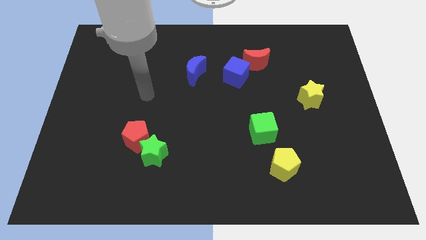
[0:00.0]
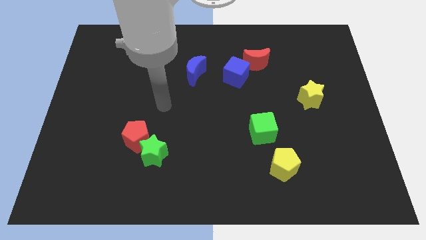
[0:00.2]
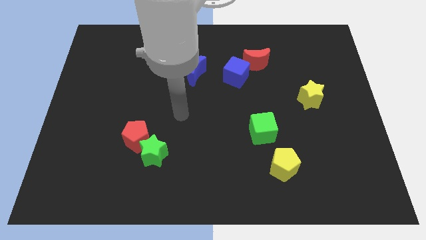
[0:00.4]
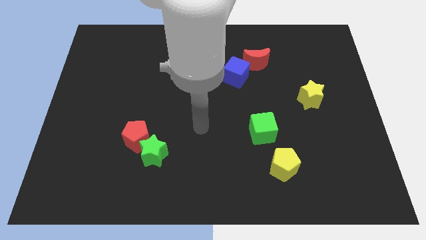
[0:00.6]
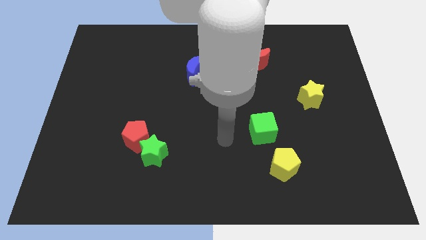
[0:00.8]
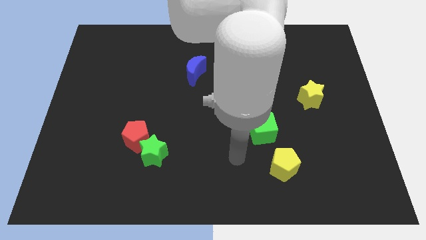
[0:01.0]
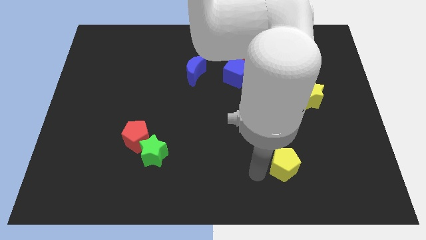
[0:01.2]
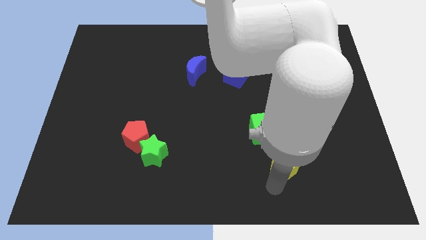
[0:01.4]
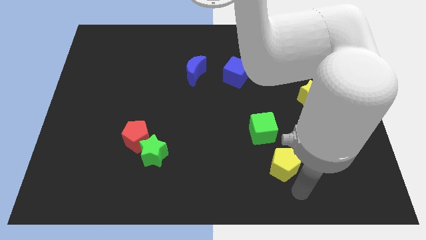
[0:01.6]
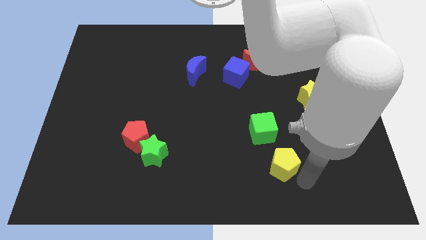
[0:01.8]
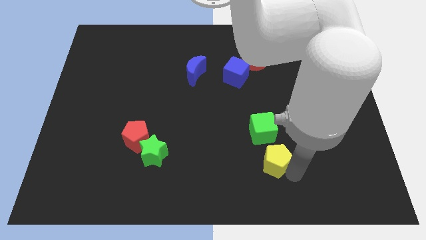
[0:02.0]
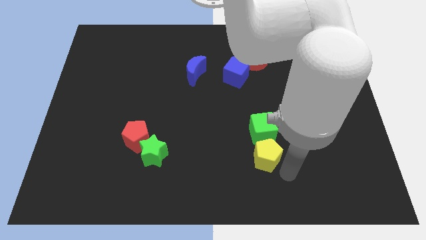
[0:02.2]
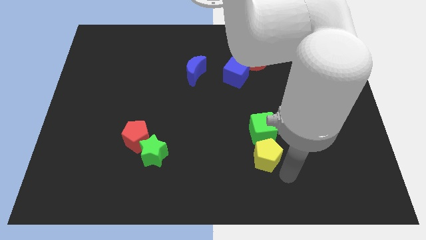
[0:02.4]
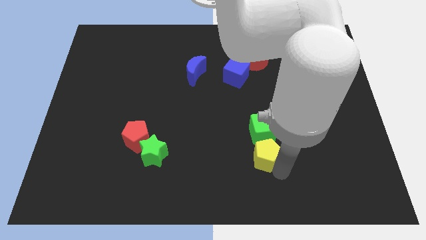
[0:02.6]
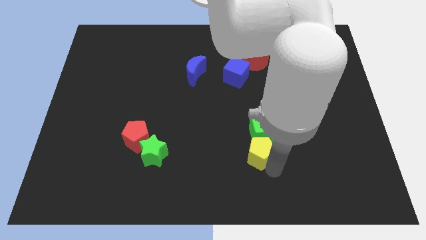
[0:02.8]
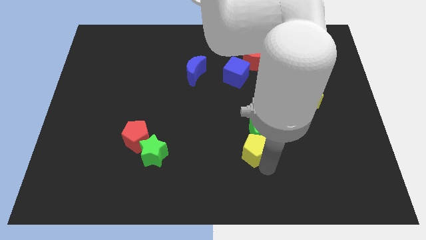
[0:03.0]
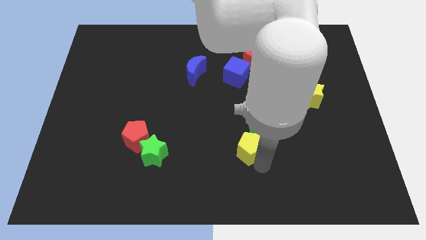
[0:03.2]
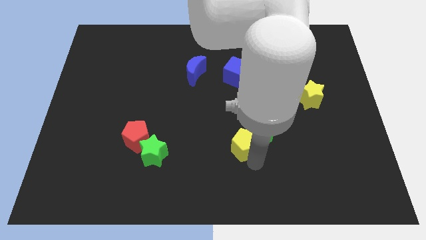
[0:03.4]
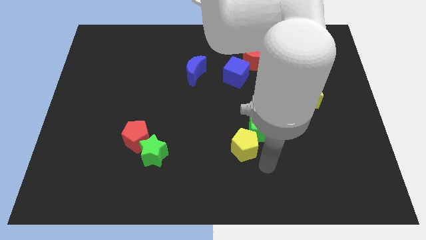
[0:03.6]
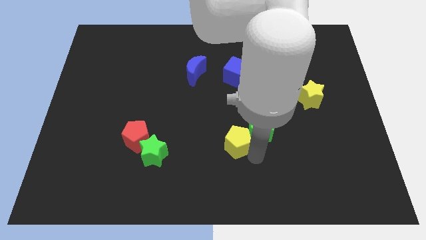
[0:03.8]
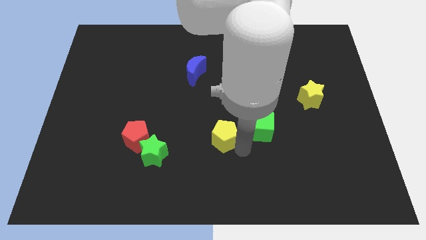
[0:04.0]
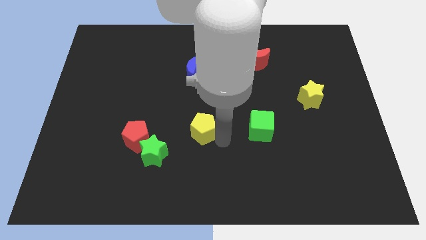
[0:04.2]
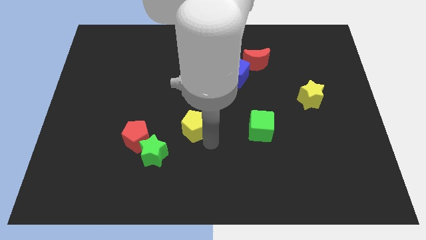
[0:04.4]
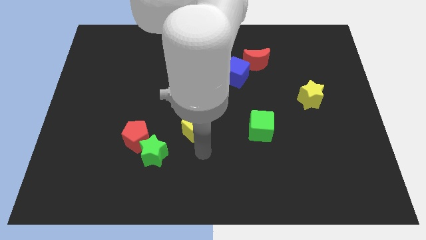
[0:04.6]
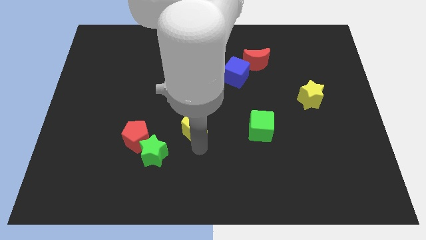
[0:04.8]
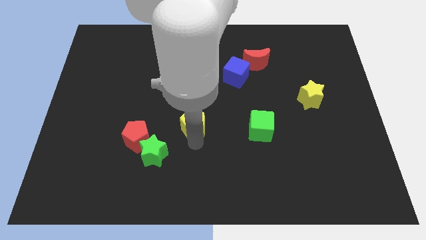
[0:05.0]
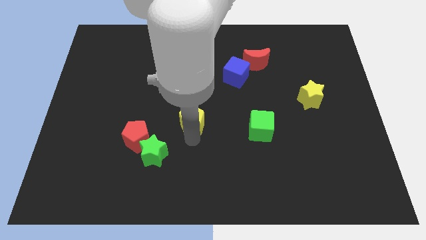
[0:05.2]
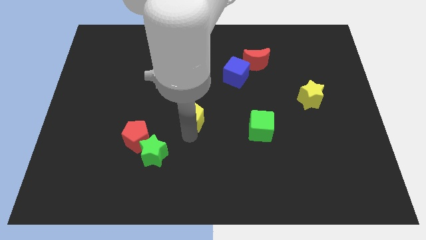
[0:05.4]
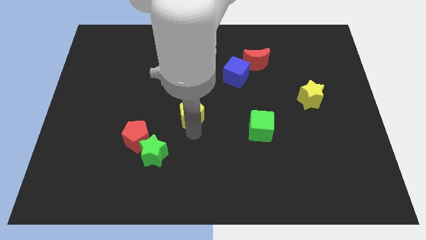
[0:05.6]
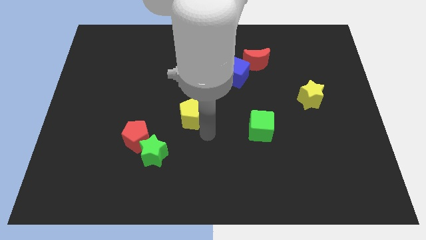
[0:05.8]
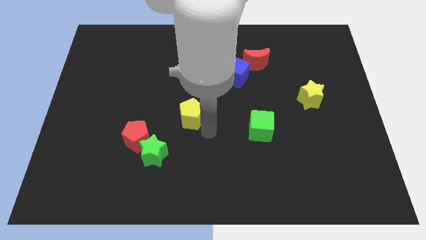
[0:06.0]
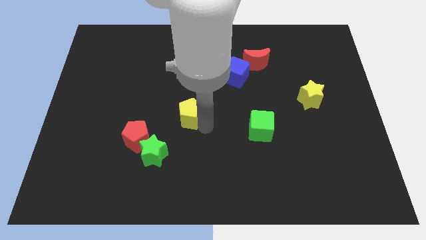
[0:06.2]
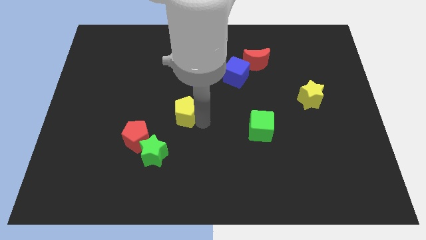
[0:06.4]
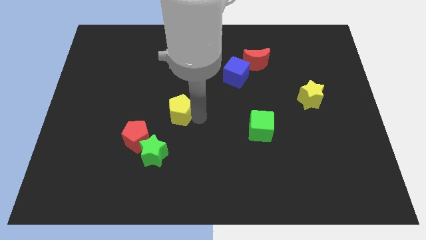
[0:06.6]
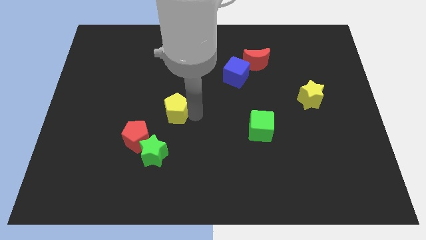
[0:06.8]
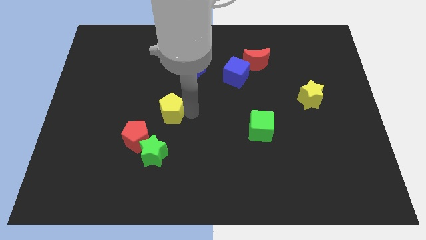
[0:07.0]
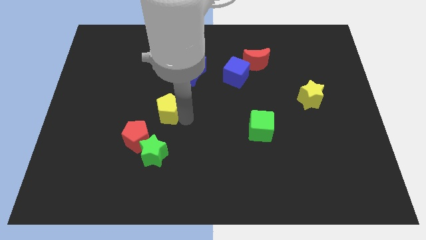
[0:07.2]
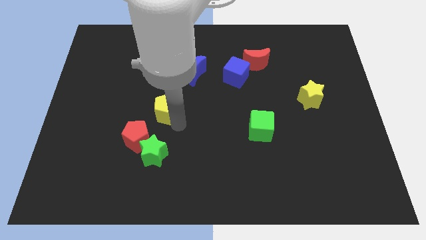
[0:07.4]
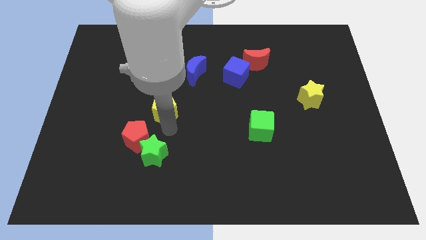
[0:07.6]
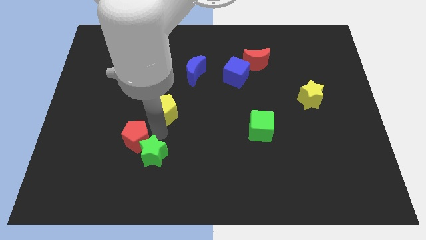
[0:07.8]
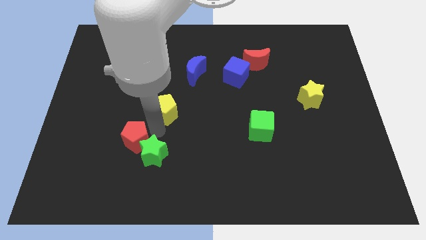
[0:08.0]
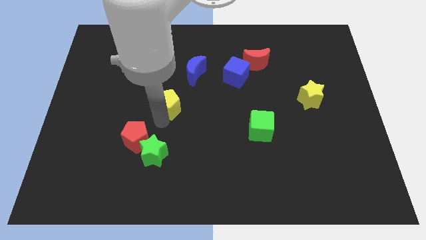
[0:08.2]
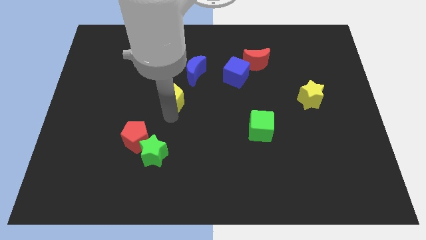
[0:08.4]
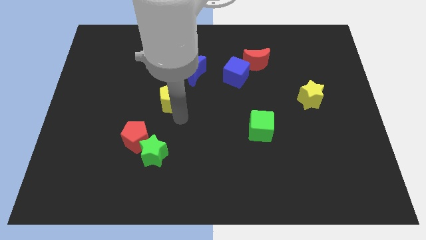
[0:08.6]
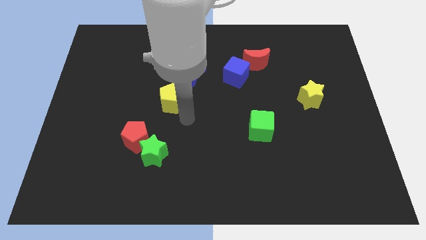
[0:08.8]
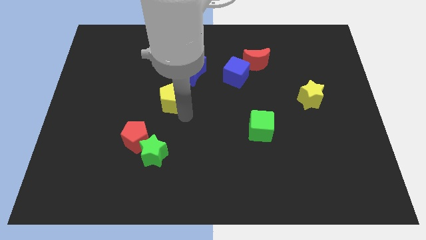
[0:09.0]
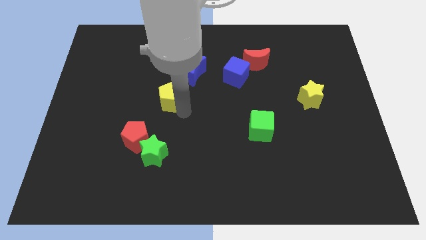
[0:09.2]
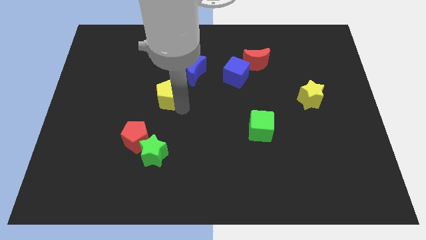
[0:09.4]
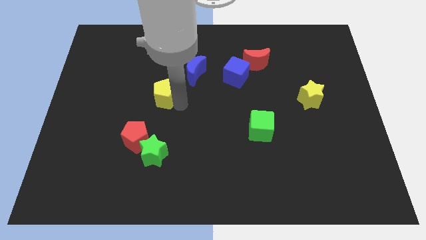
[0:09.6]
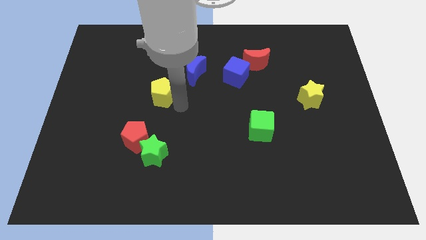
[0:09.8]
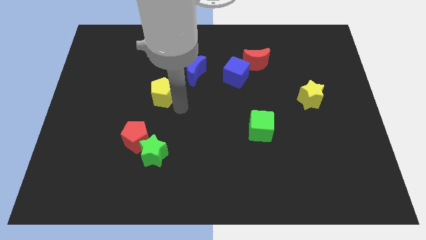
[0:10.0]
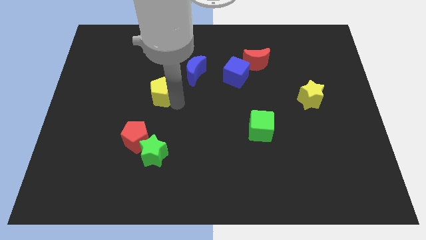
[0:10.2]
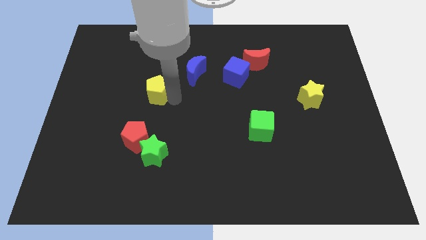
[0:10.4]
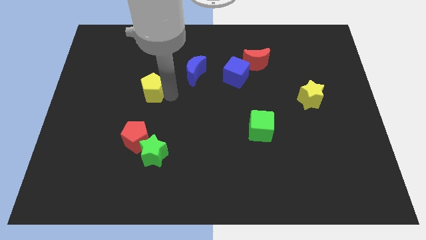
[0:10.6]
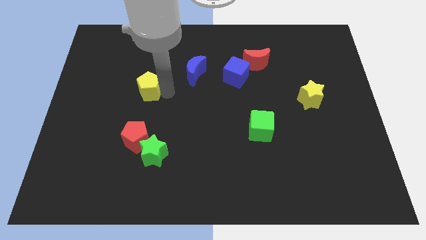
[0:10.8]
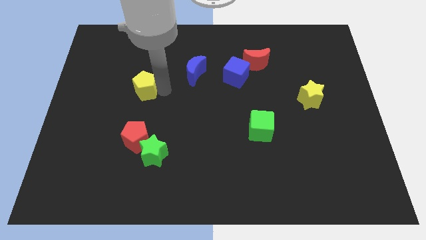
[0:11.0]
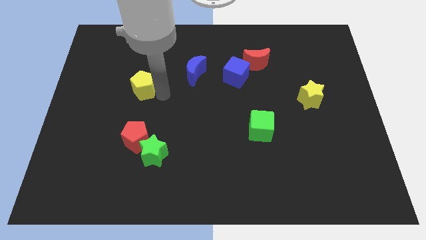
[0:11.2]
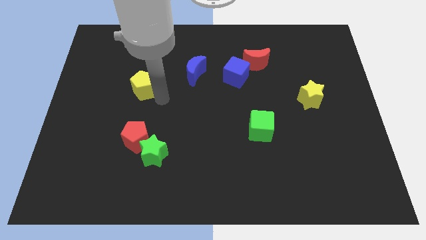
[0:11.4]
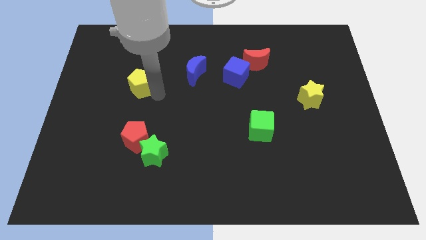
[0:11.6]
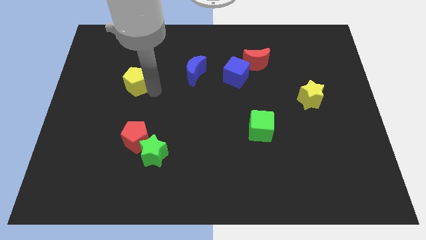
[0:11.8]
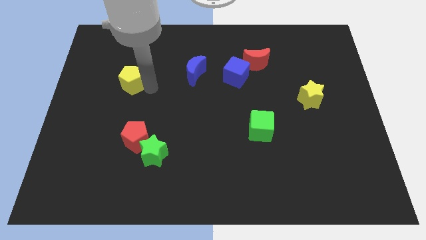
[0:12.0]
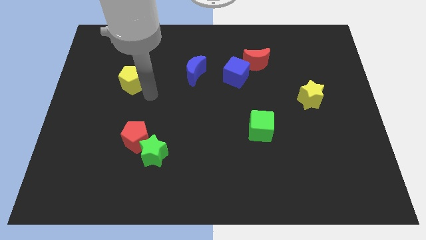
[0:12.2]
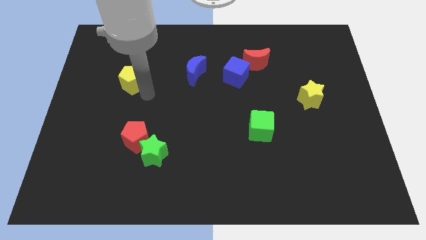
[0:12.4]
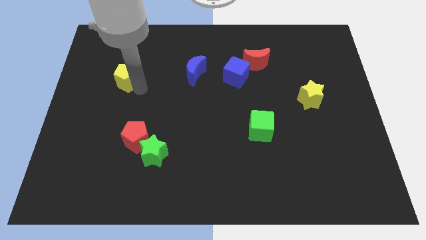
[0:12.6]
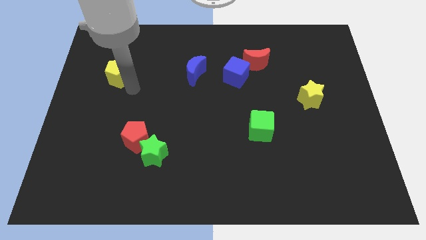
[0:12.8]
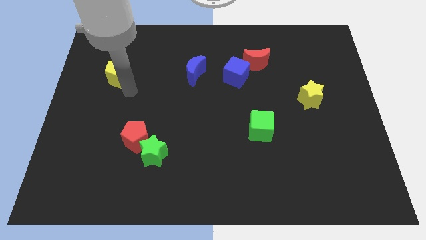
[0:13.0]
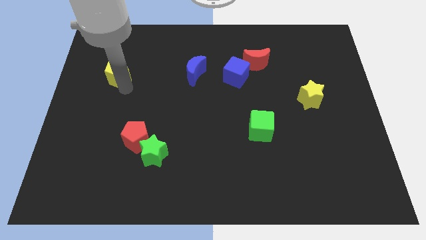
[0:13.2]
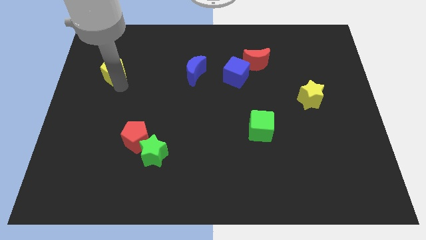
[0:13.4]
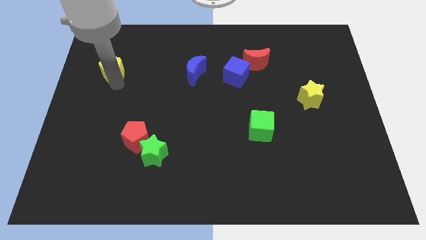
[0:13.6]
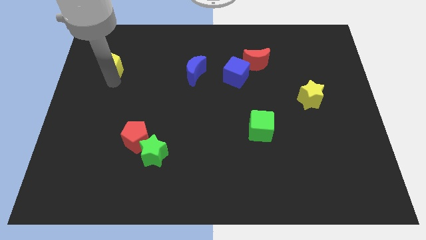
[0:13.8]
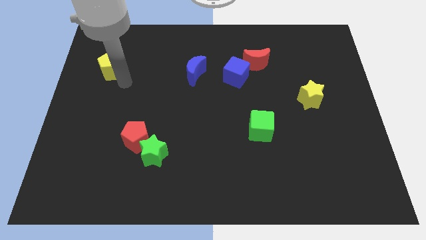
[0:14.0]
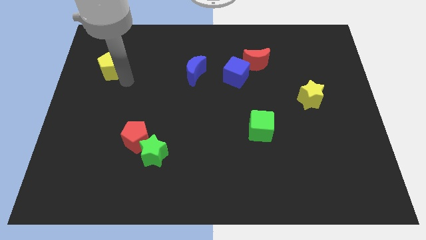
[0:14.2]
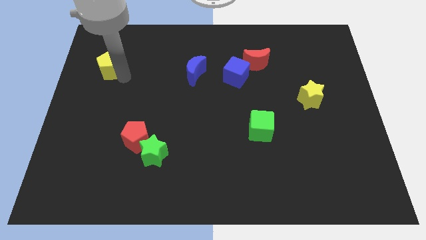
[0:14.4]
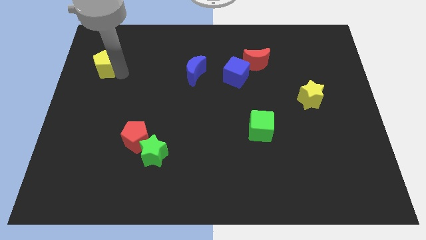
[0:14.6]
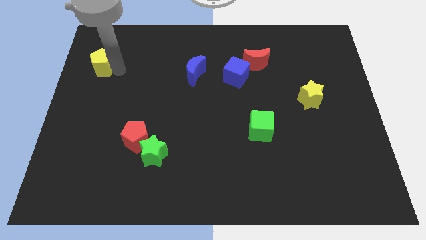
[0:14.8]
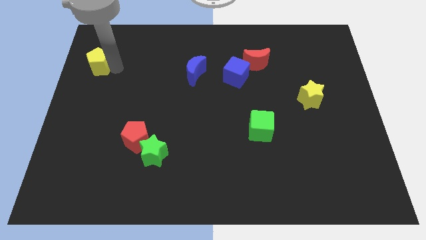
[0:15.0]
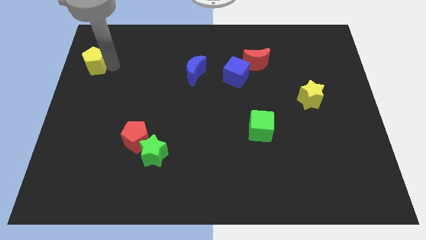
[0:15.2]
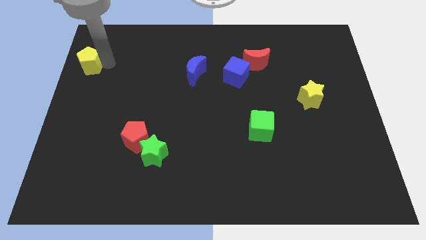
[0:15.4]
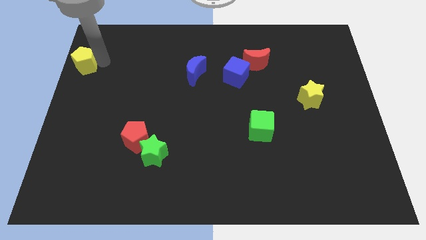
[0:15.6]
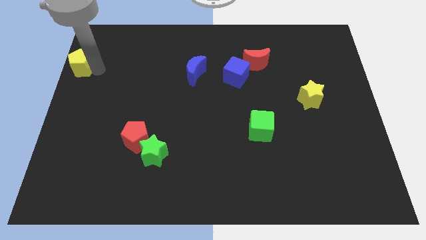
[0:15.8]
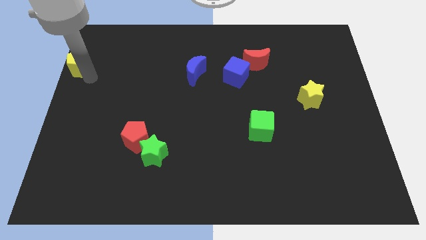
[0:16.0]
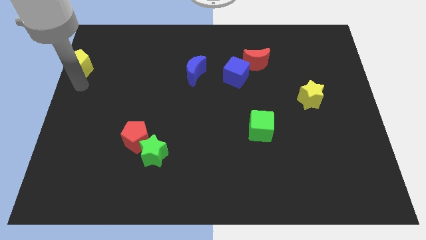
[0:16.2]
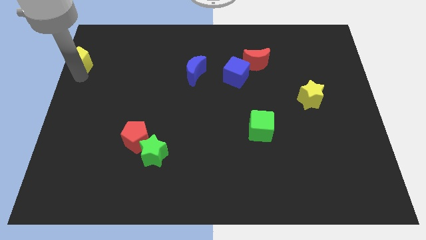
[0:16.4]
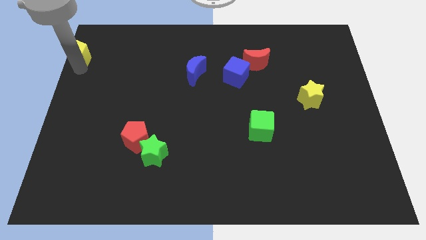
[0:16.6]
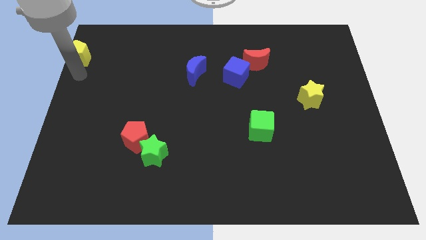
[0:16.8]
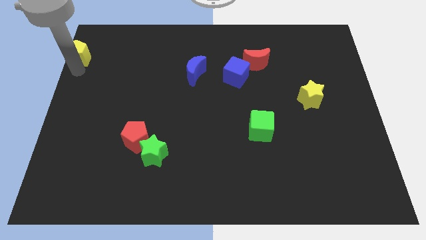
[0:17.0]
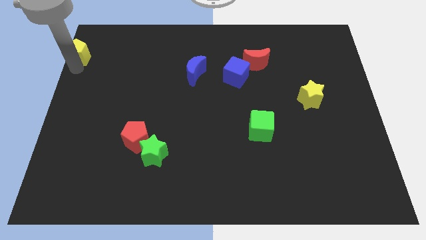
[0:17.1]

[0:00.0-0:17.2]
put the yellow pentagon to the upper left corner
